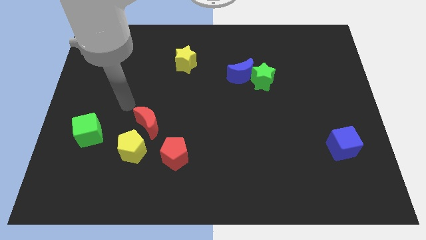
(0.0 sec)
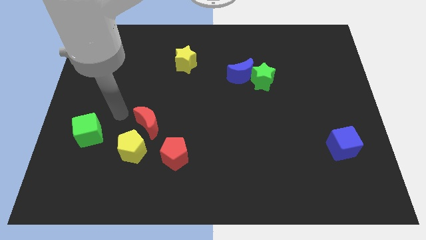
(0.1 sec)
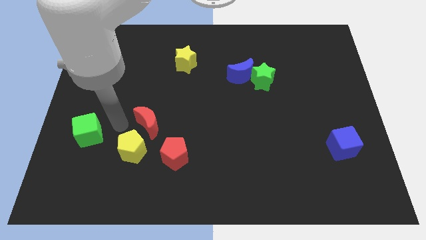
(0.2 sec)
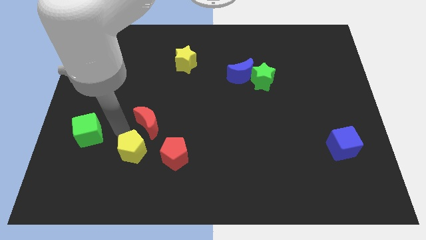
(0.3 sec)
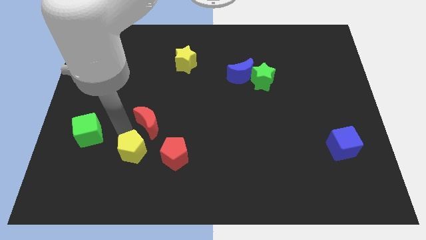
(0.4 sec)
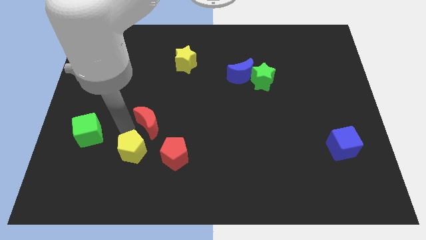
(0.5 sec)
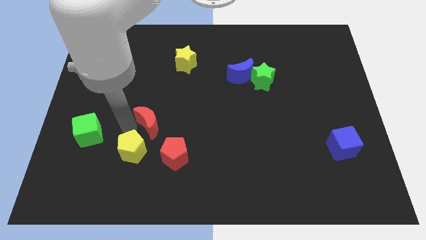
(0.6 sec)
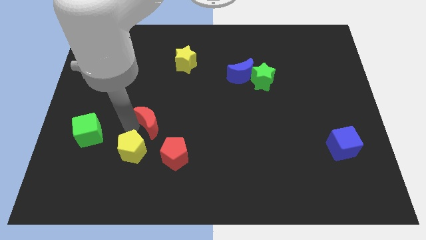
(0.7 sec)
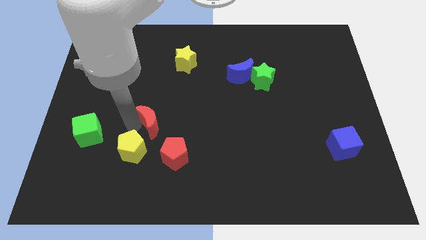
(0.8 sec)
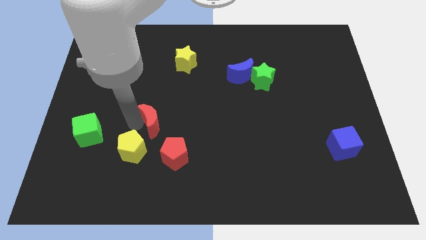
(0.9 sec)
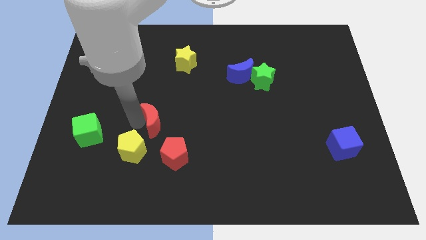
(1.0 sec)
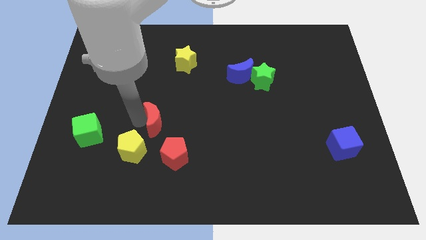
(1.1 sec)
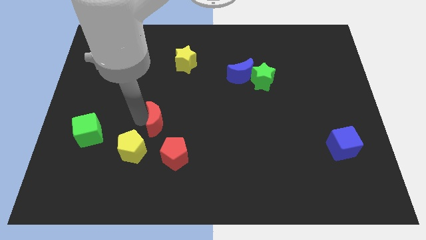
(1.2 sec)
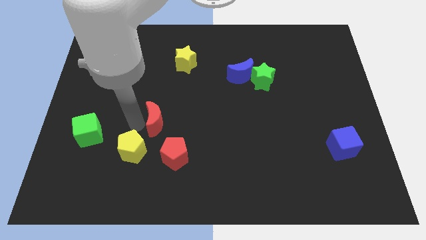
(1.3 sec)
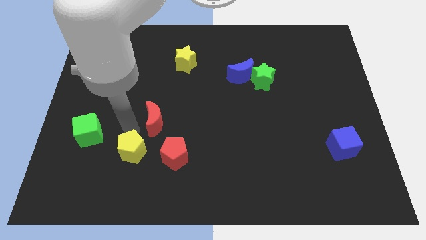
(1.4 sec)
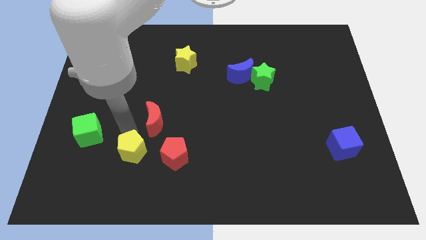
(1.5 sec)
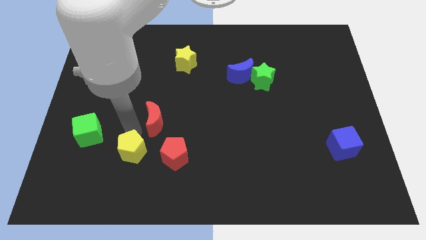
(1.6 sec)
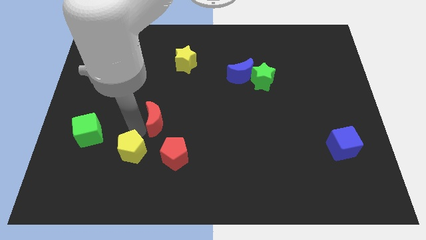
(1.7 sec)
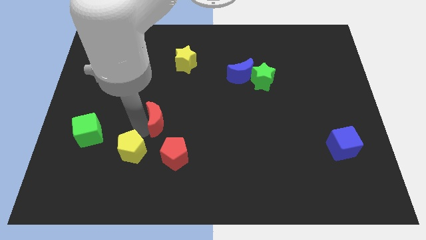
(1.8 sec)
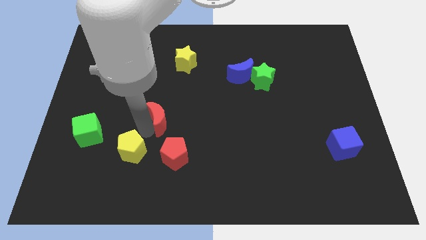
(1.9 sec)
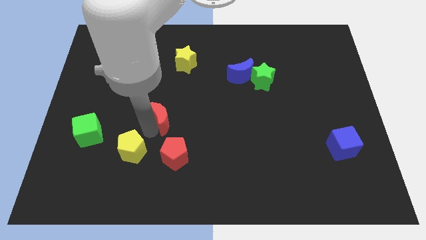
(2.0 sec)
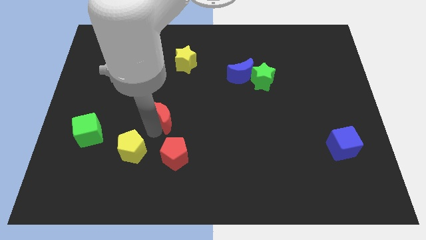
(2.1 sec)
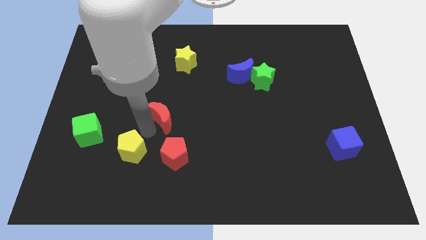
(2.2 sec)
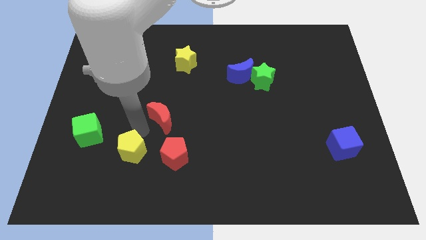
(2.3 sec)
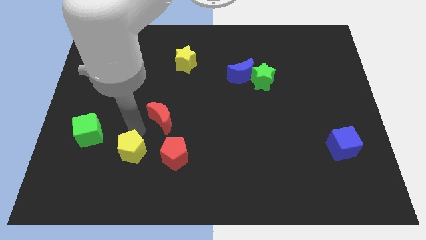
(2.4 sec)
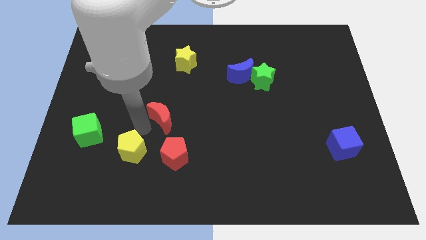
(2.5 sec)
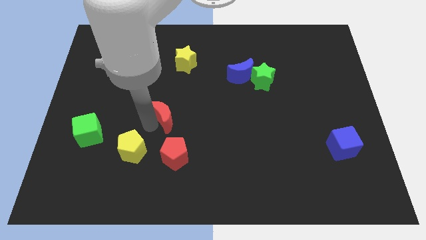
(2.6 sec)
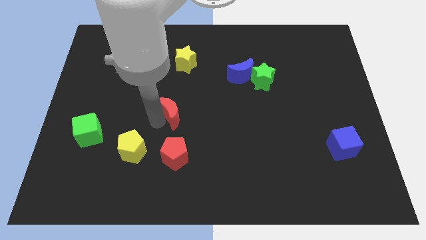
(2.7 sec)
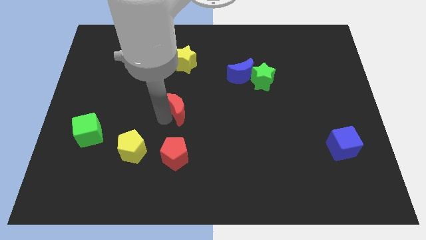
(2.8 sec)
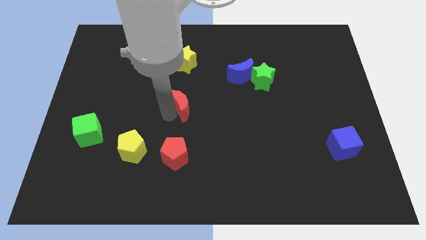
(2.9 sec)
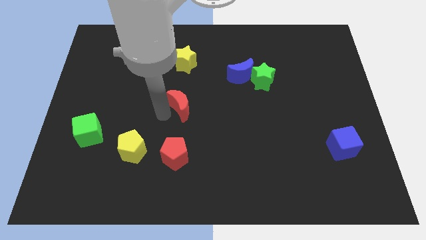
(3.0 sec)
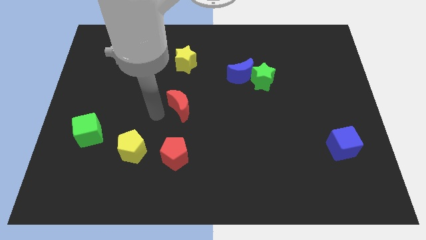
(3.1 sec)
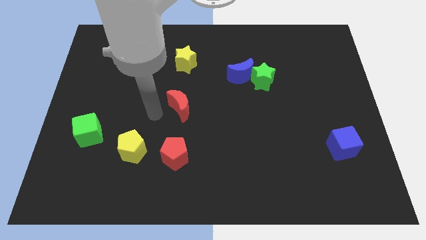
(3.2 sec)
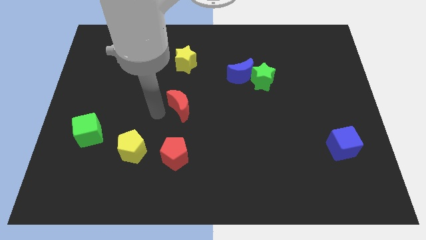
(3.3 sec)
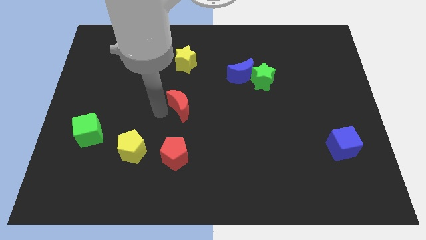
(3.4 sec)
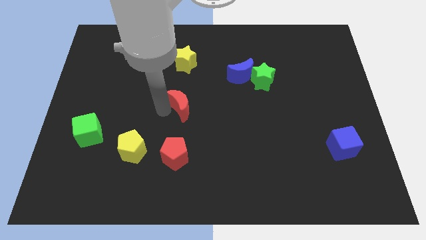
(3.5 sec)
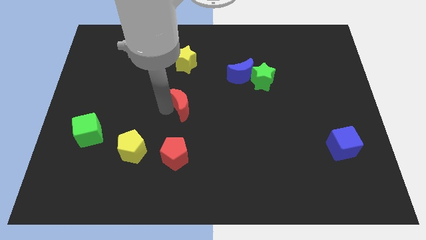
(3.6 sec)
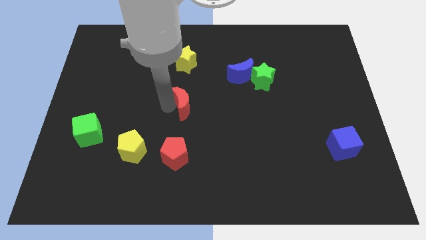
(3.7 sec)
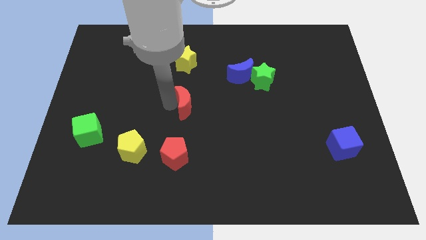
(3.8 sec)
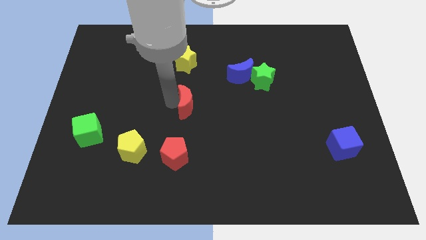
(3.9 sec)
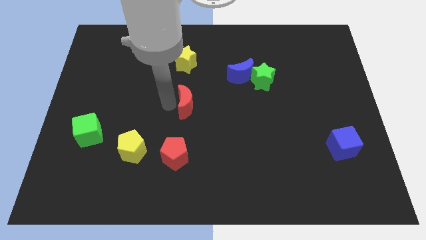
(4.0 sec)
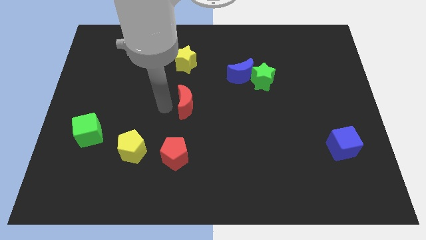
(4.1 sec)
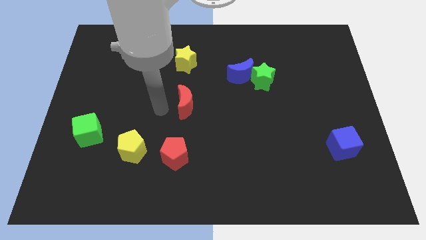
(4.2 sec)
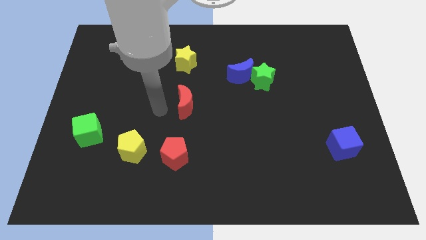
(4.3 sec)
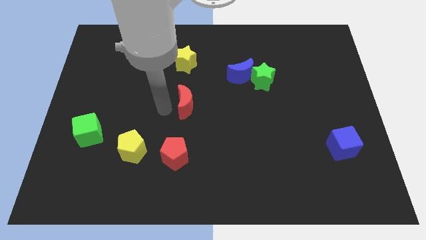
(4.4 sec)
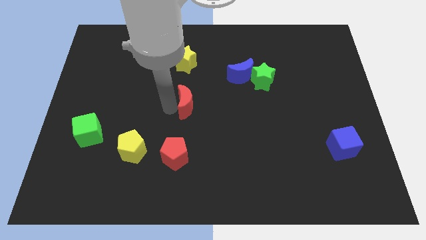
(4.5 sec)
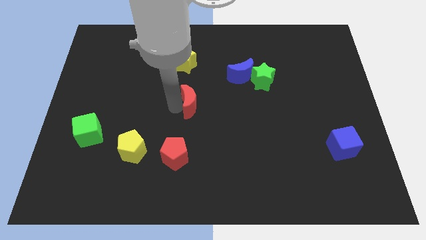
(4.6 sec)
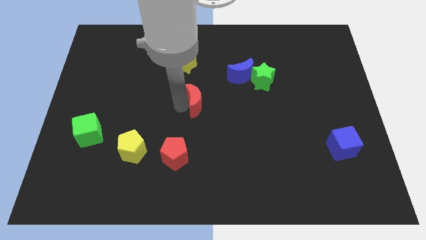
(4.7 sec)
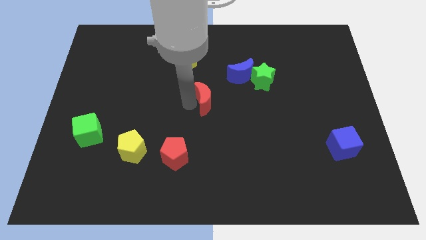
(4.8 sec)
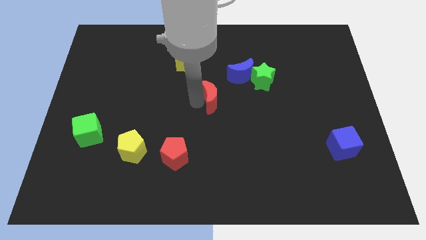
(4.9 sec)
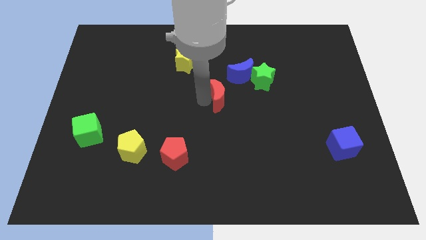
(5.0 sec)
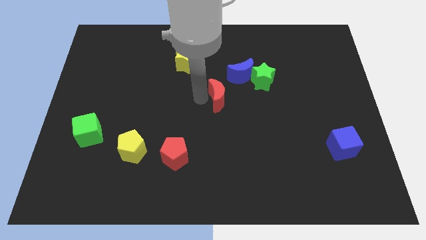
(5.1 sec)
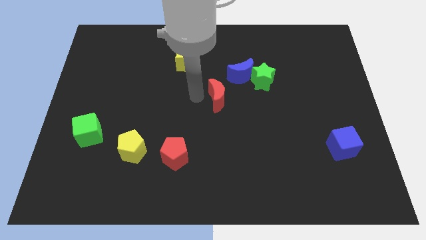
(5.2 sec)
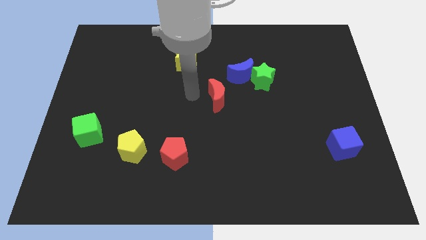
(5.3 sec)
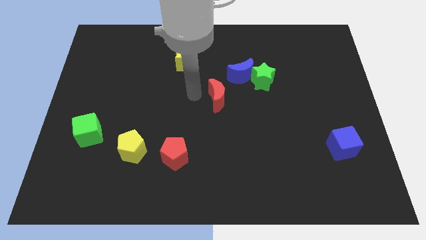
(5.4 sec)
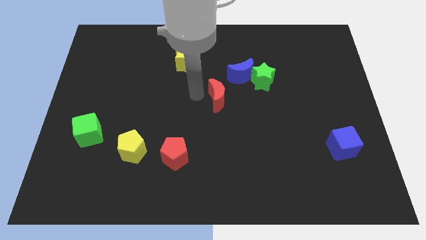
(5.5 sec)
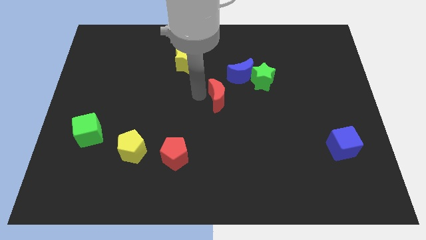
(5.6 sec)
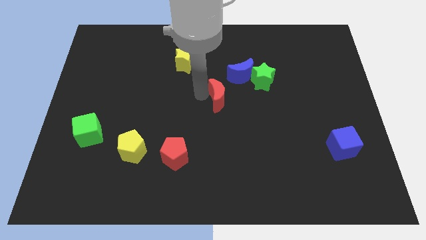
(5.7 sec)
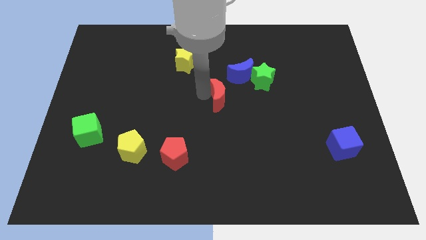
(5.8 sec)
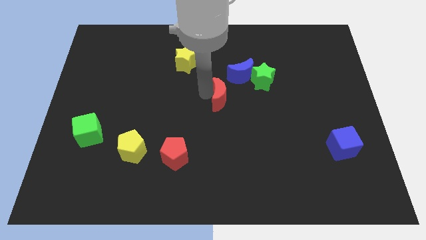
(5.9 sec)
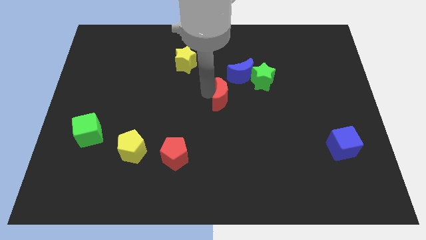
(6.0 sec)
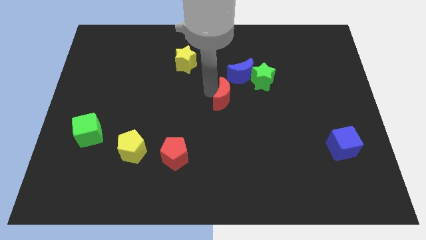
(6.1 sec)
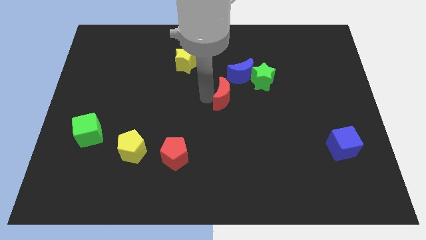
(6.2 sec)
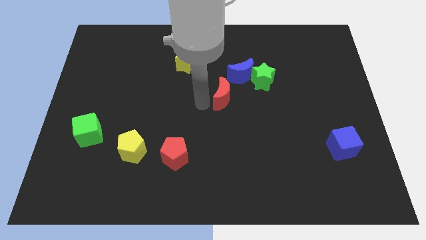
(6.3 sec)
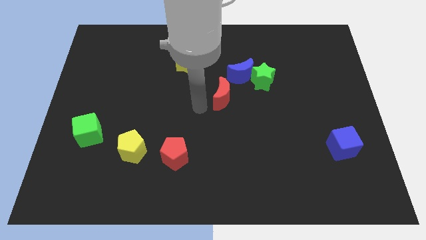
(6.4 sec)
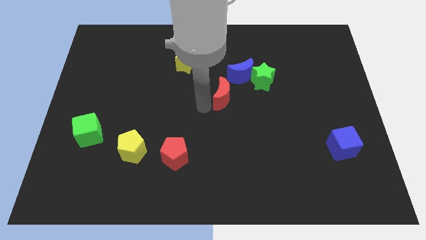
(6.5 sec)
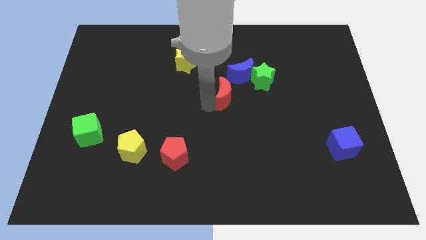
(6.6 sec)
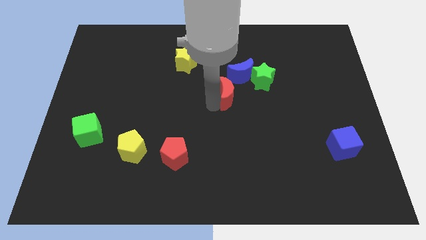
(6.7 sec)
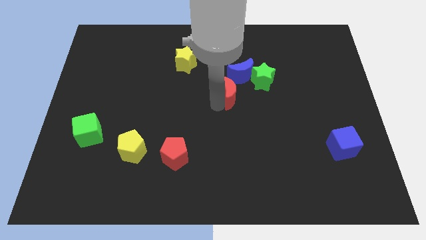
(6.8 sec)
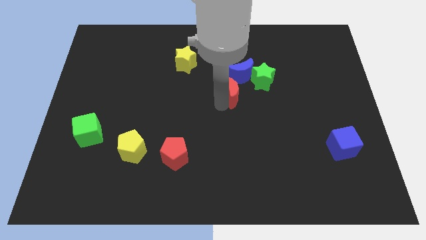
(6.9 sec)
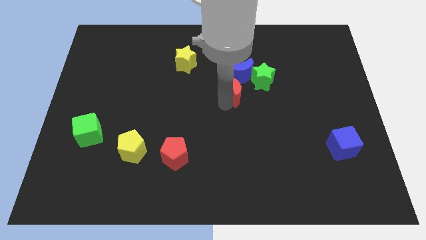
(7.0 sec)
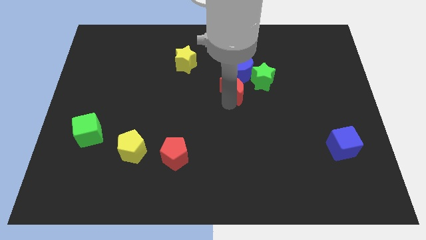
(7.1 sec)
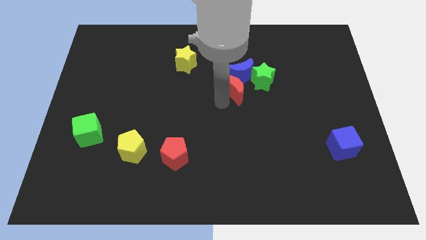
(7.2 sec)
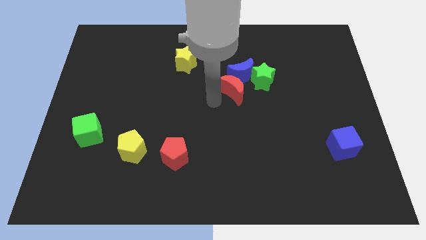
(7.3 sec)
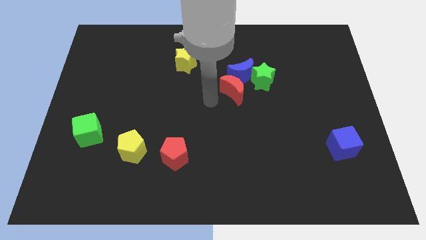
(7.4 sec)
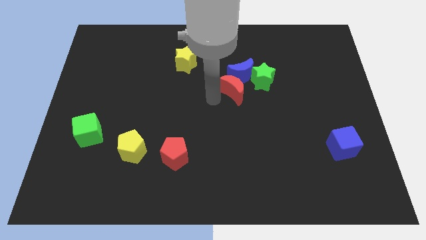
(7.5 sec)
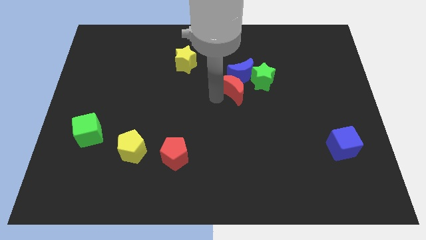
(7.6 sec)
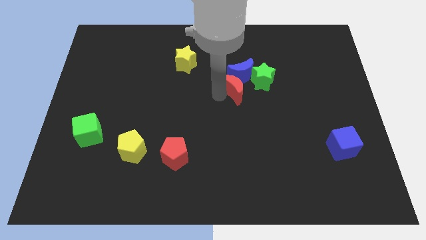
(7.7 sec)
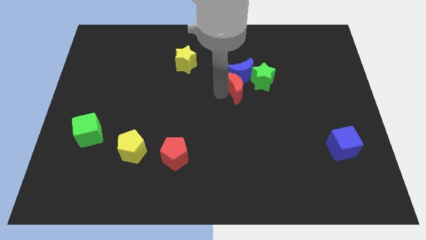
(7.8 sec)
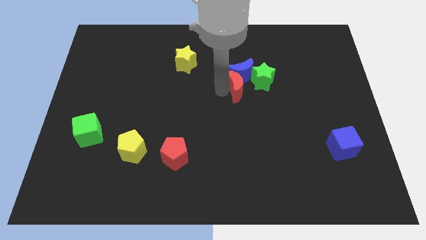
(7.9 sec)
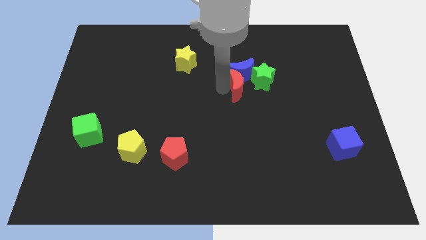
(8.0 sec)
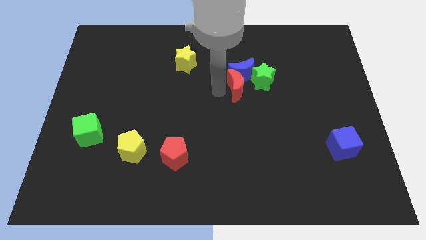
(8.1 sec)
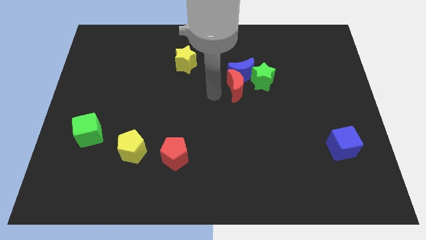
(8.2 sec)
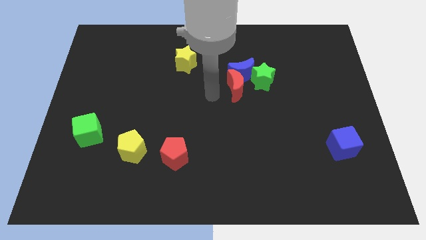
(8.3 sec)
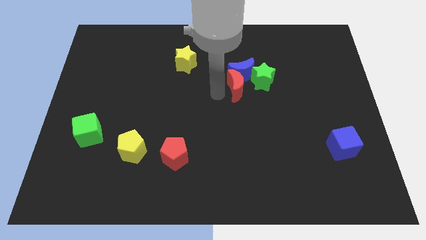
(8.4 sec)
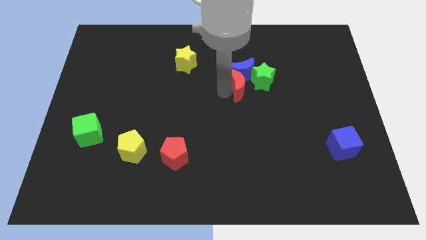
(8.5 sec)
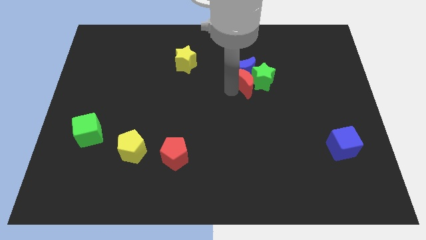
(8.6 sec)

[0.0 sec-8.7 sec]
push the red moon to the green star
